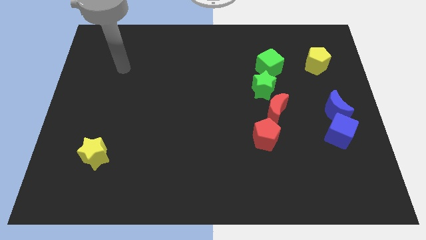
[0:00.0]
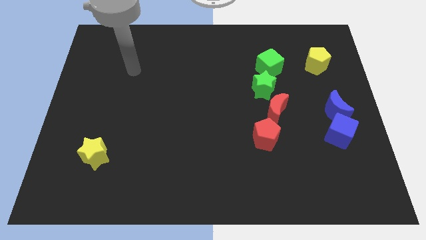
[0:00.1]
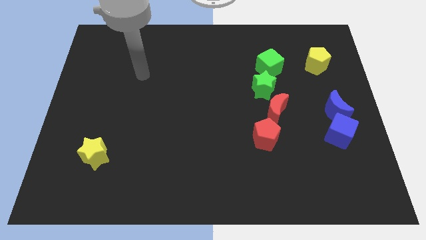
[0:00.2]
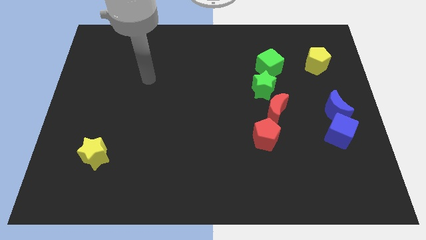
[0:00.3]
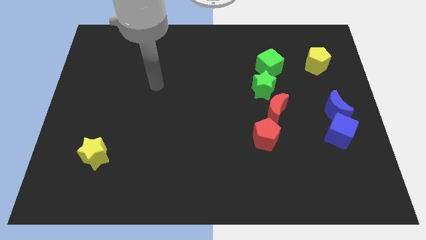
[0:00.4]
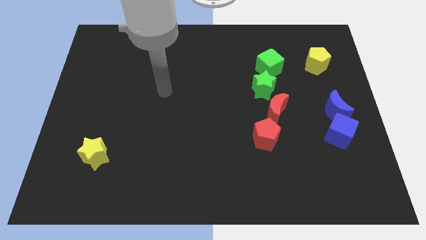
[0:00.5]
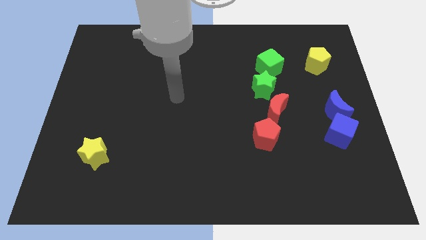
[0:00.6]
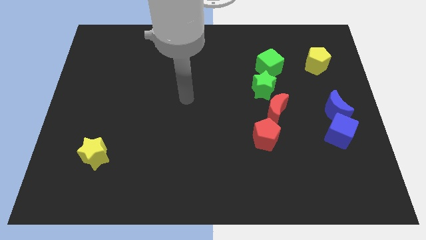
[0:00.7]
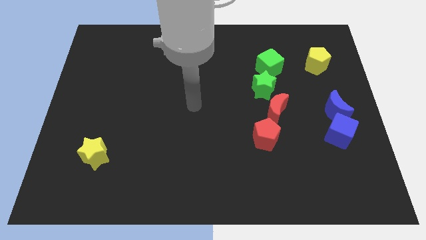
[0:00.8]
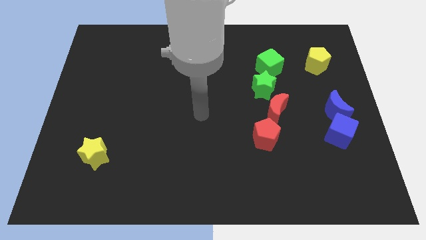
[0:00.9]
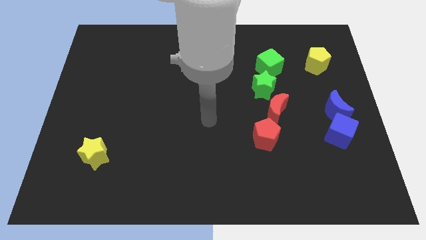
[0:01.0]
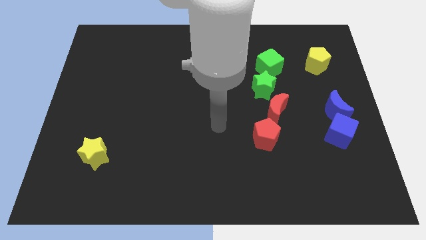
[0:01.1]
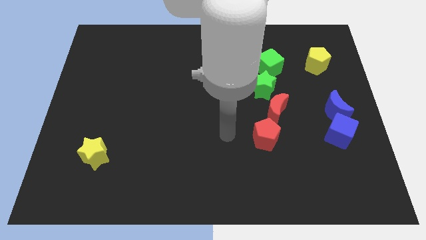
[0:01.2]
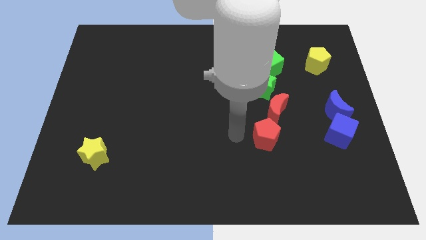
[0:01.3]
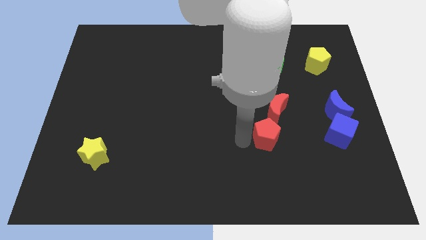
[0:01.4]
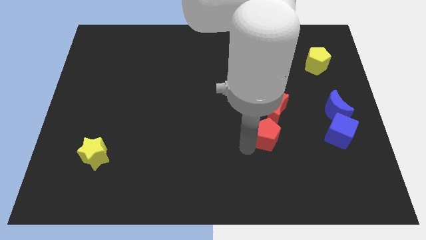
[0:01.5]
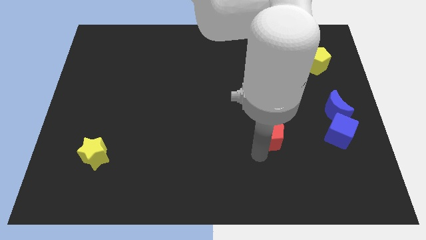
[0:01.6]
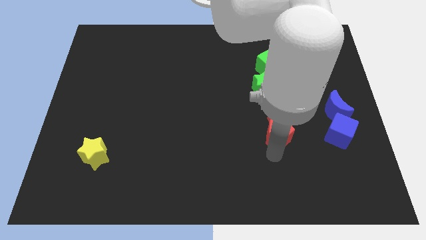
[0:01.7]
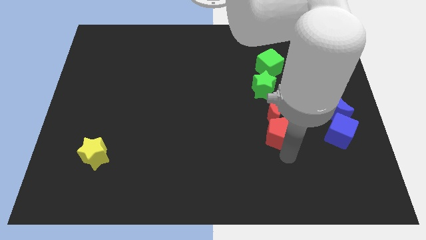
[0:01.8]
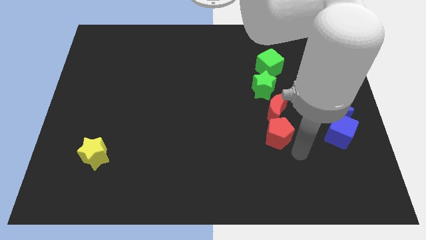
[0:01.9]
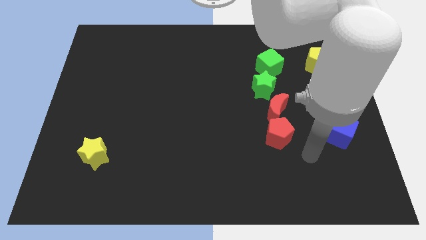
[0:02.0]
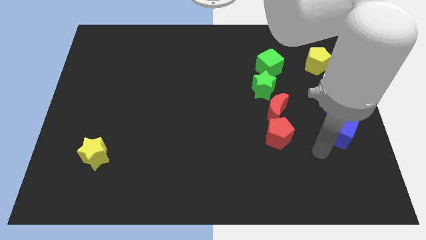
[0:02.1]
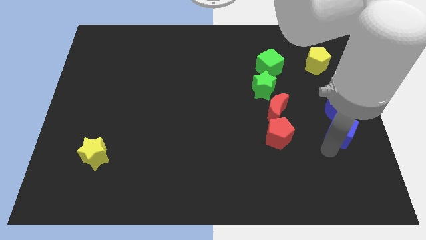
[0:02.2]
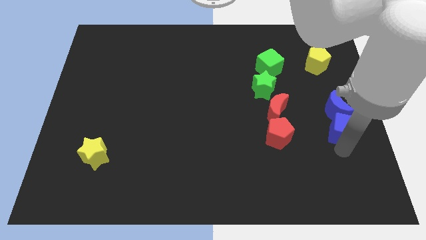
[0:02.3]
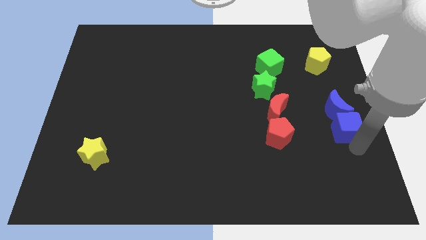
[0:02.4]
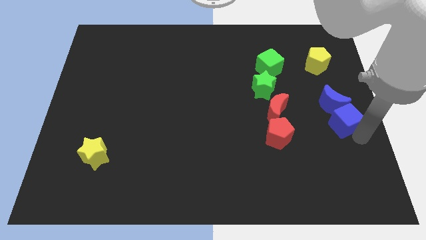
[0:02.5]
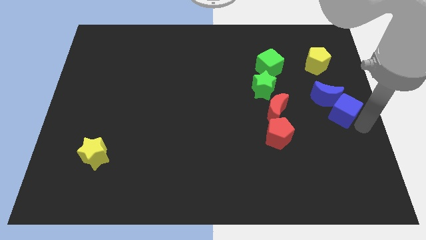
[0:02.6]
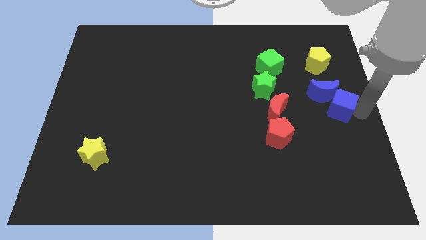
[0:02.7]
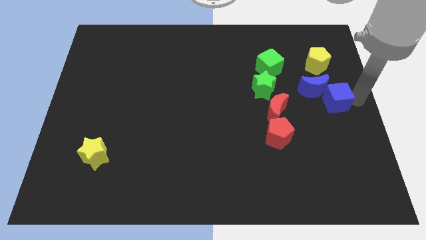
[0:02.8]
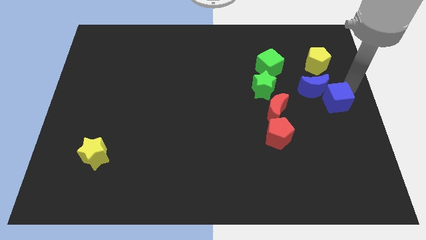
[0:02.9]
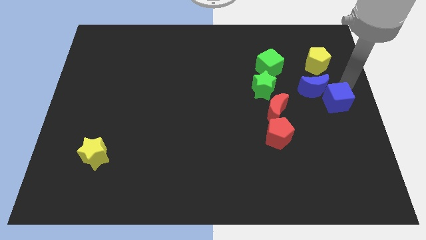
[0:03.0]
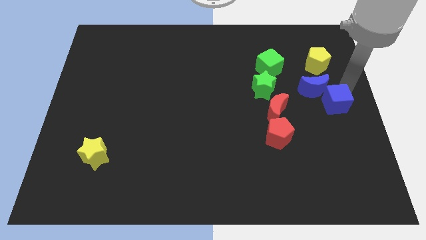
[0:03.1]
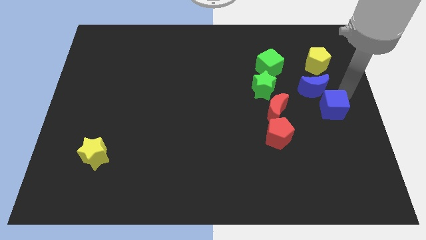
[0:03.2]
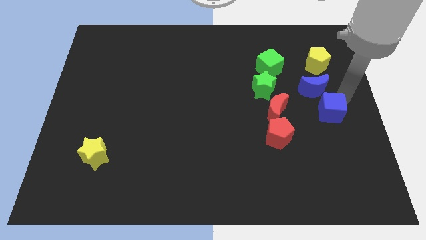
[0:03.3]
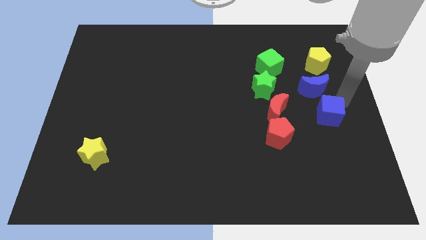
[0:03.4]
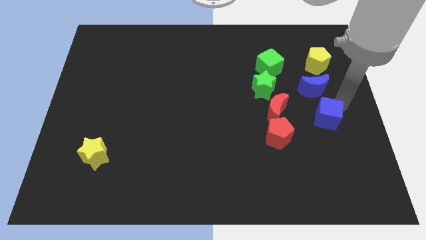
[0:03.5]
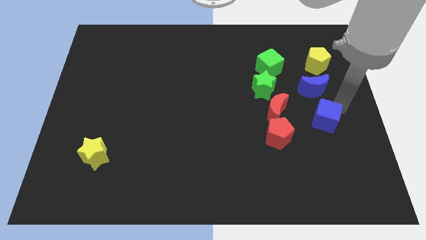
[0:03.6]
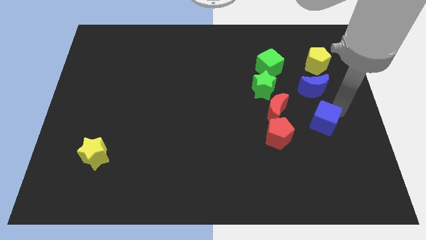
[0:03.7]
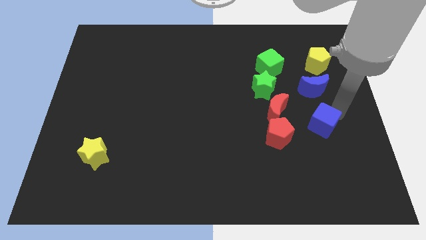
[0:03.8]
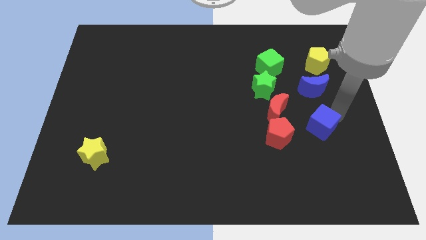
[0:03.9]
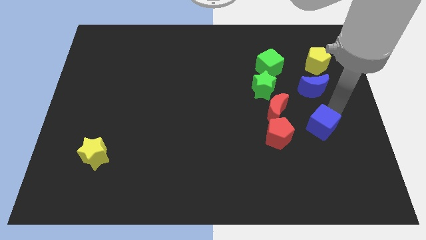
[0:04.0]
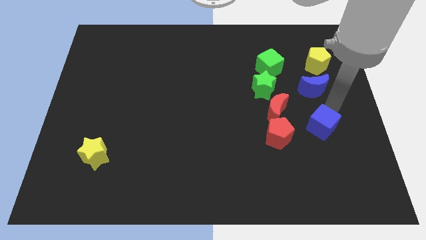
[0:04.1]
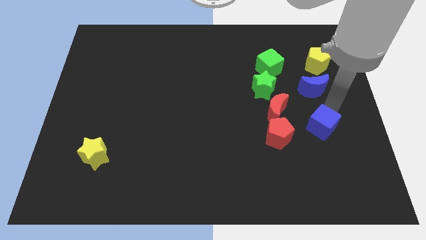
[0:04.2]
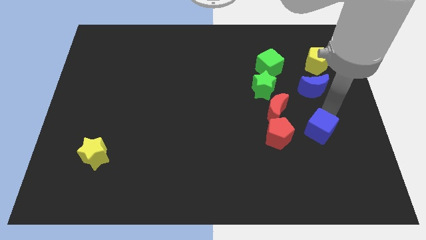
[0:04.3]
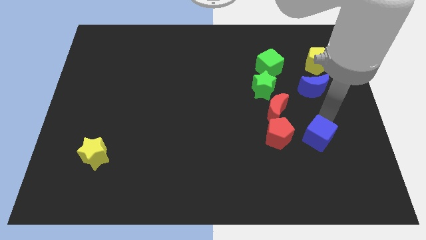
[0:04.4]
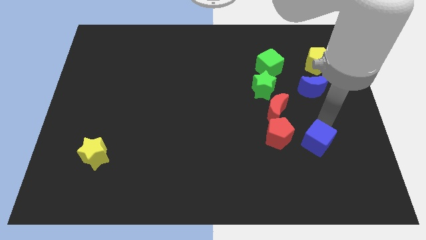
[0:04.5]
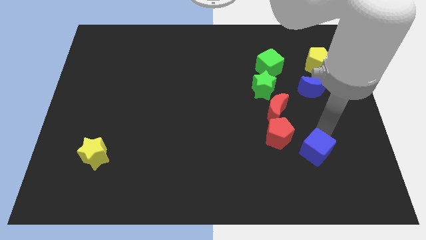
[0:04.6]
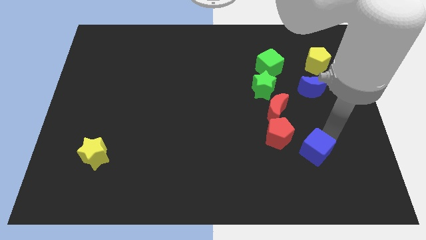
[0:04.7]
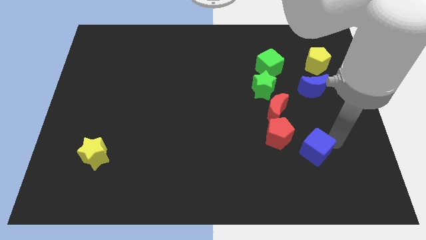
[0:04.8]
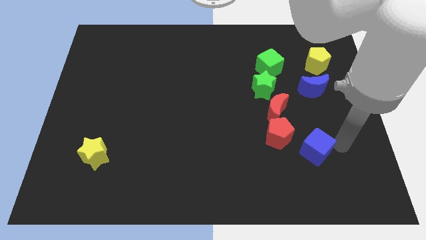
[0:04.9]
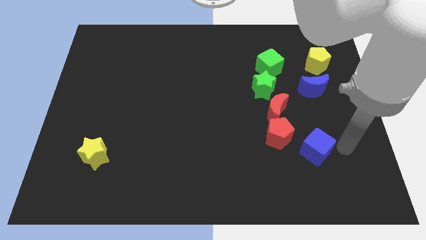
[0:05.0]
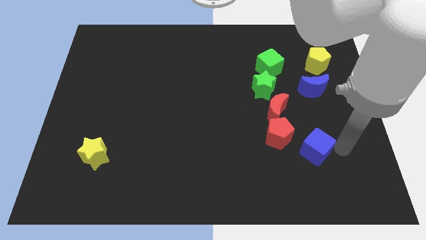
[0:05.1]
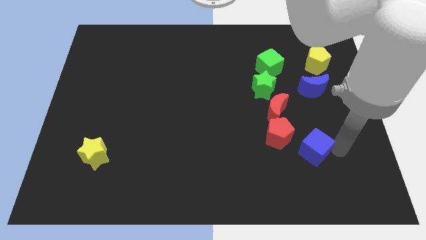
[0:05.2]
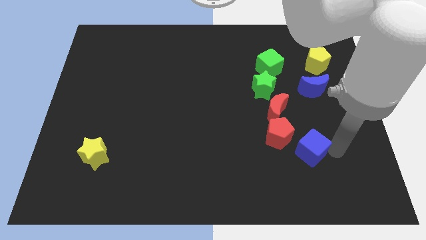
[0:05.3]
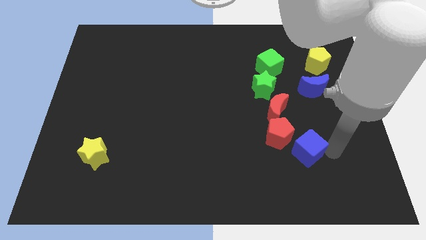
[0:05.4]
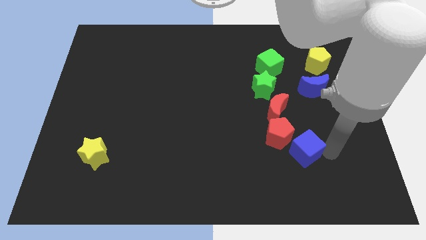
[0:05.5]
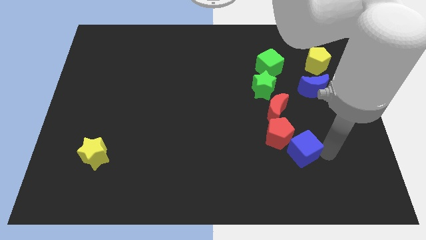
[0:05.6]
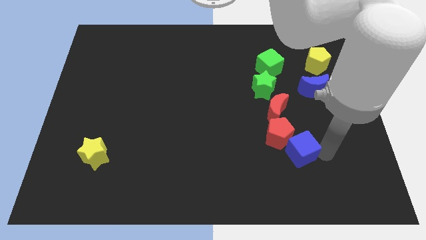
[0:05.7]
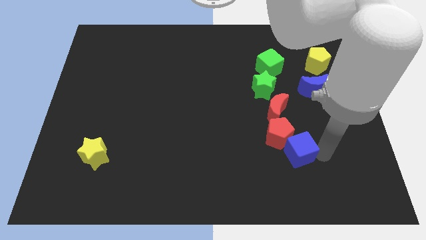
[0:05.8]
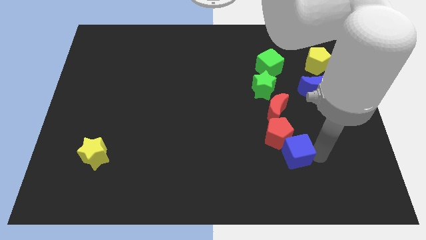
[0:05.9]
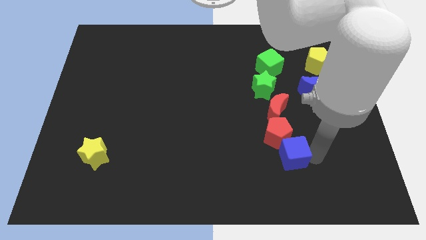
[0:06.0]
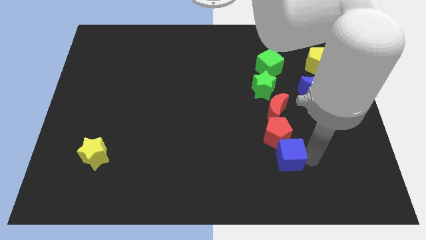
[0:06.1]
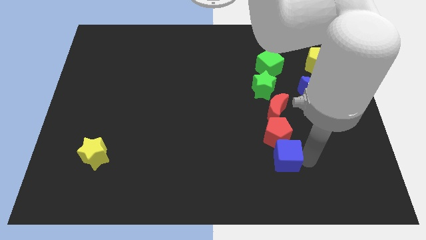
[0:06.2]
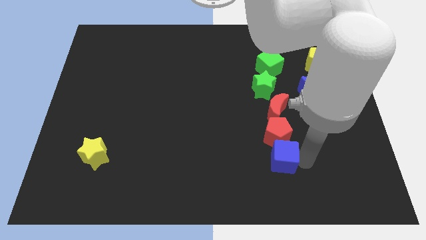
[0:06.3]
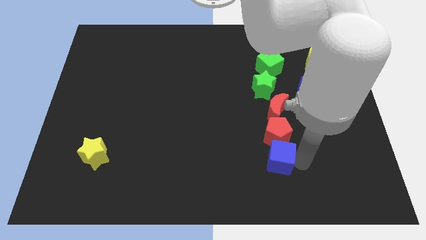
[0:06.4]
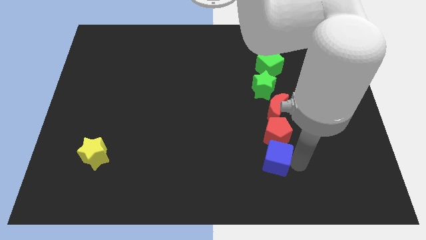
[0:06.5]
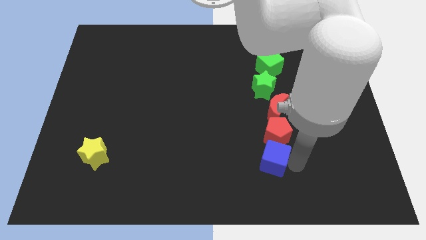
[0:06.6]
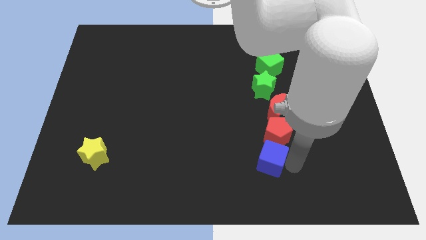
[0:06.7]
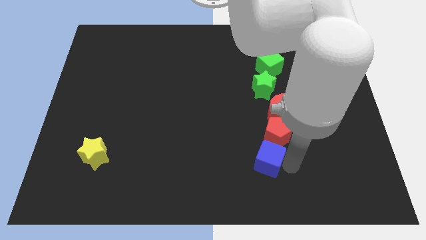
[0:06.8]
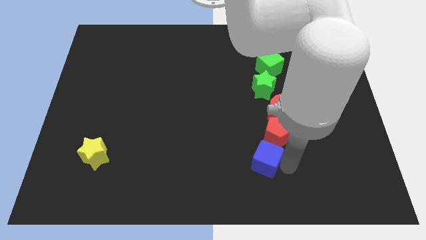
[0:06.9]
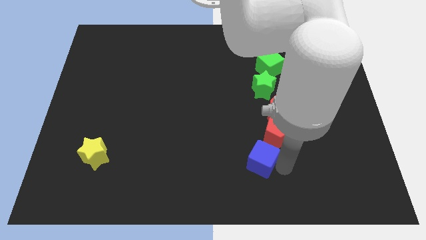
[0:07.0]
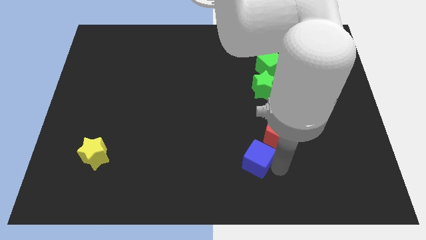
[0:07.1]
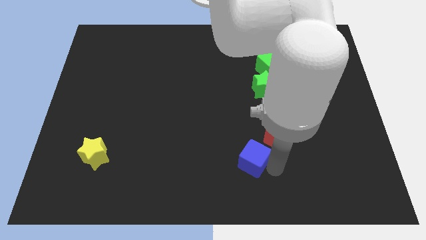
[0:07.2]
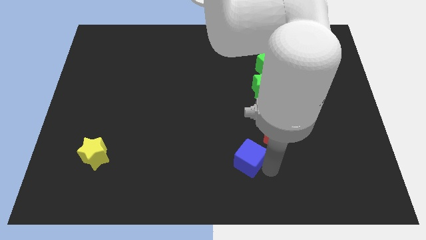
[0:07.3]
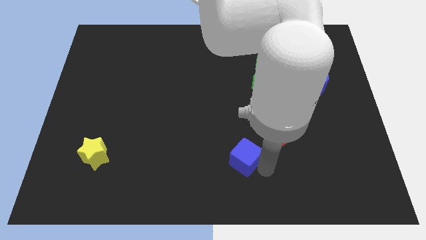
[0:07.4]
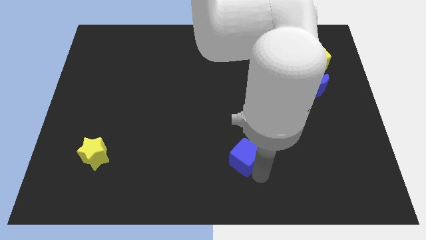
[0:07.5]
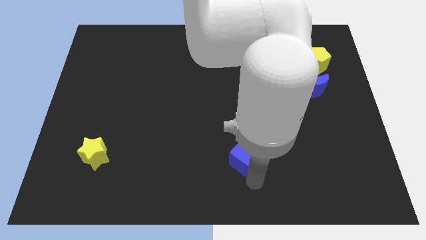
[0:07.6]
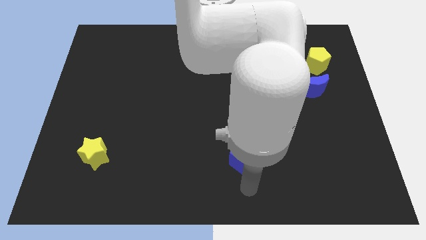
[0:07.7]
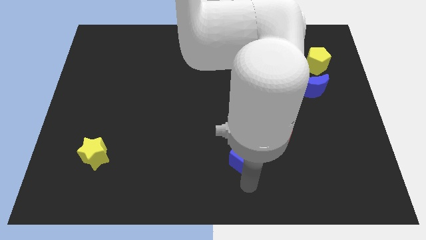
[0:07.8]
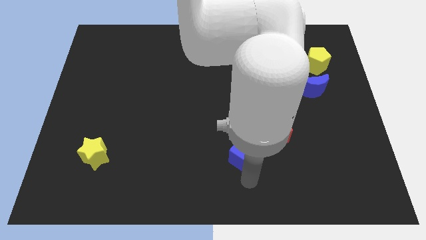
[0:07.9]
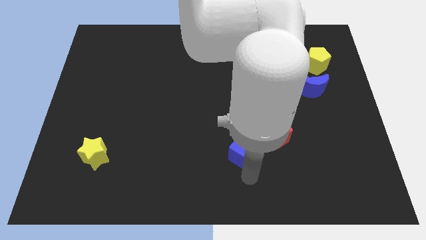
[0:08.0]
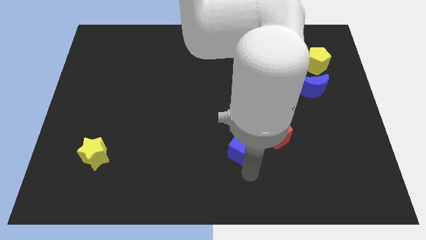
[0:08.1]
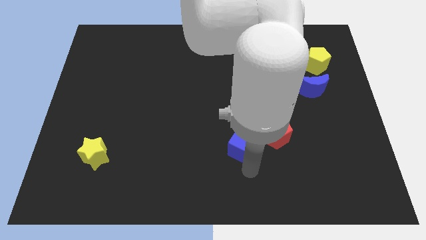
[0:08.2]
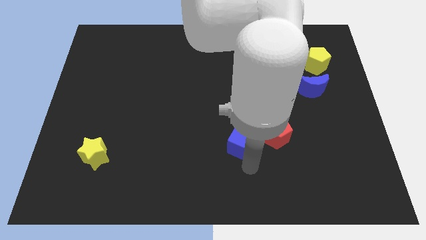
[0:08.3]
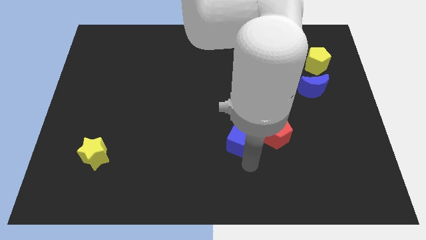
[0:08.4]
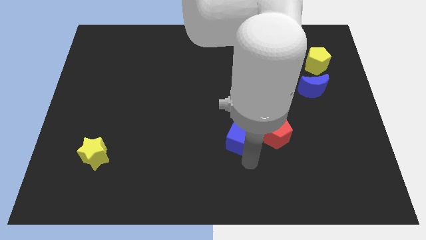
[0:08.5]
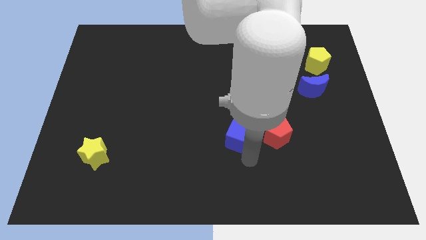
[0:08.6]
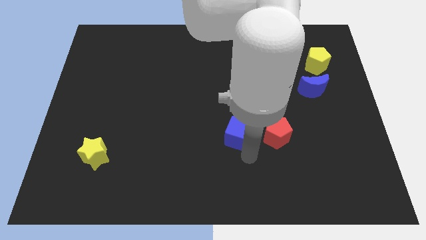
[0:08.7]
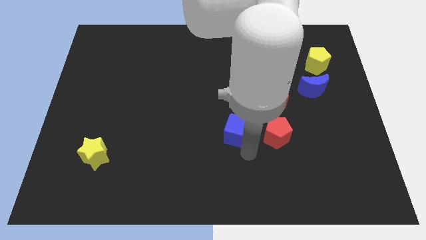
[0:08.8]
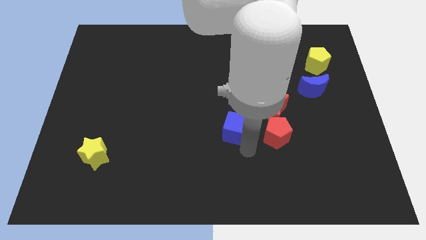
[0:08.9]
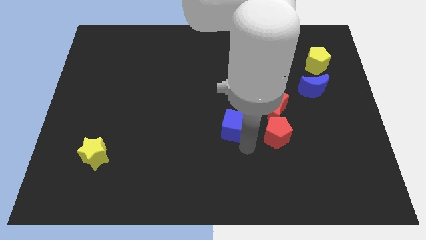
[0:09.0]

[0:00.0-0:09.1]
push the blue cube left of the red moon
